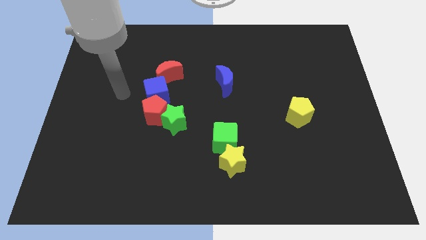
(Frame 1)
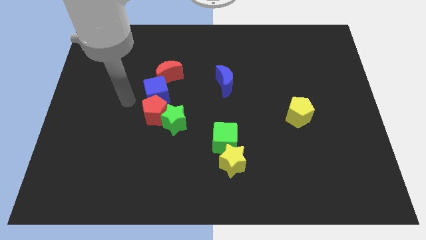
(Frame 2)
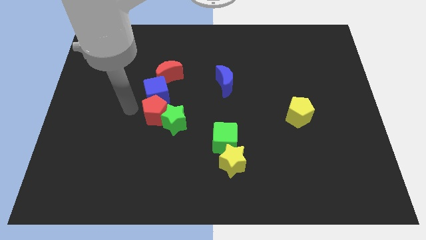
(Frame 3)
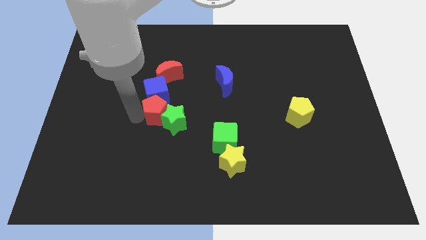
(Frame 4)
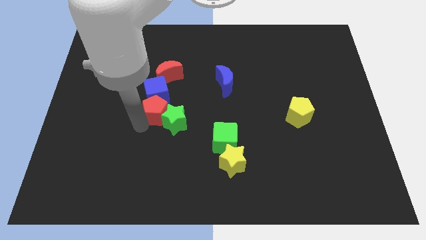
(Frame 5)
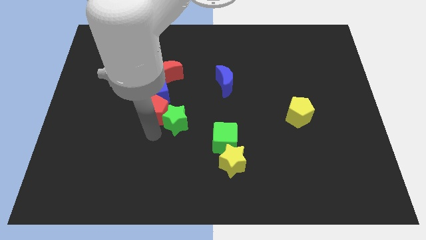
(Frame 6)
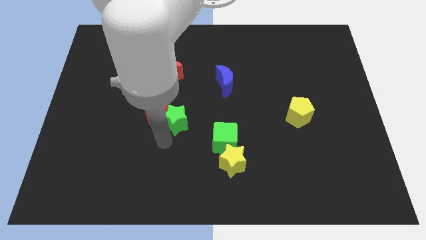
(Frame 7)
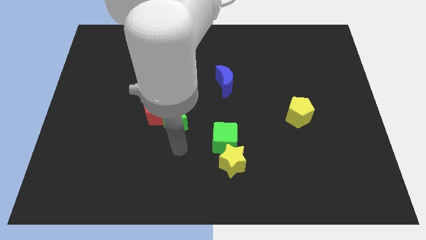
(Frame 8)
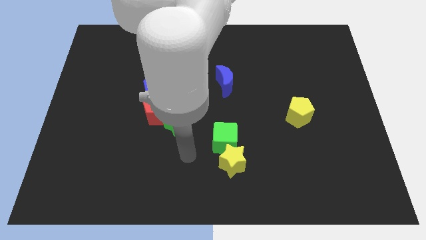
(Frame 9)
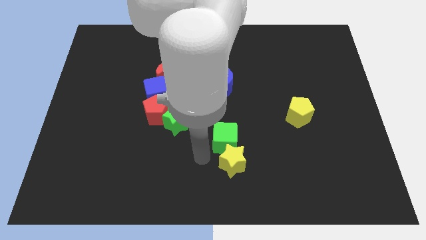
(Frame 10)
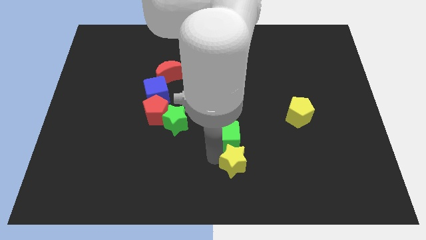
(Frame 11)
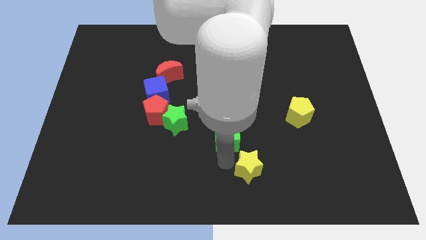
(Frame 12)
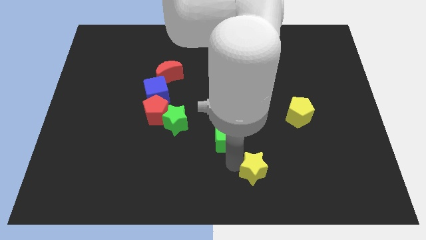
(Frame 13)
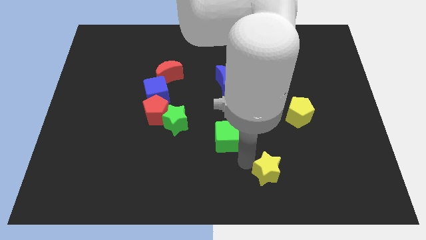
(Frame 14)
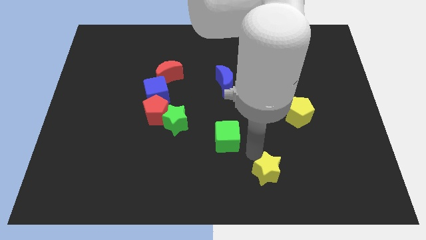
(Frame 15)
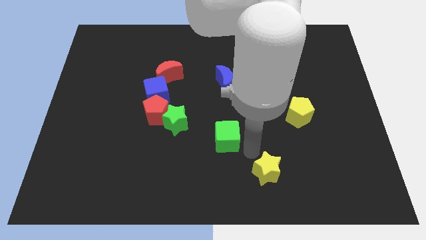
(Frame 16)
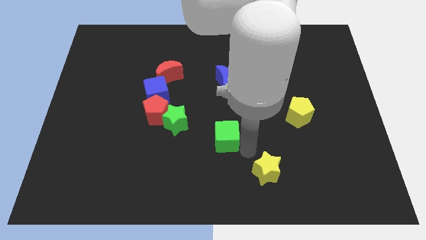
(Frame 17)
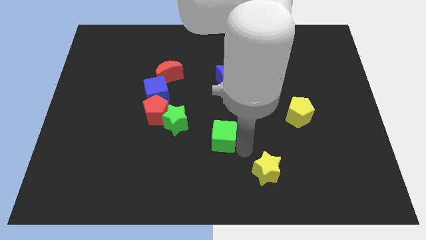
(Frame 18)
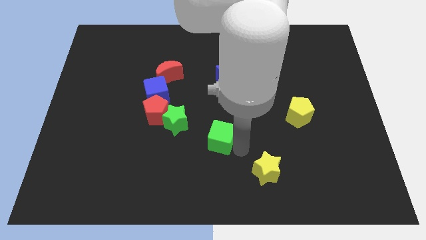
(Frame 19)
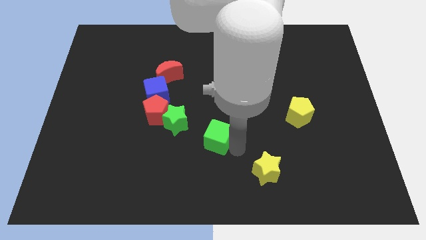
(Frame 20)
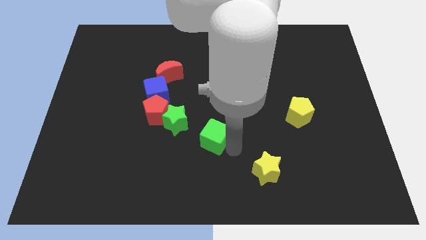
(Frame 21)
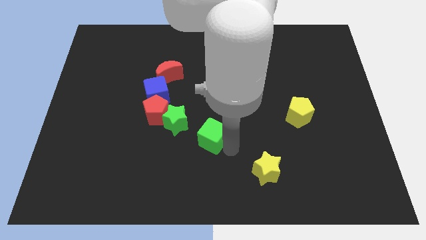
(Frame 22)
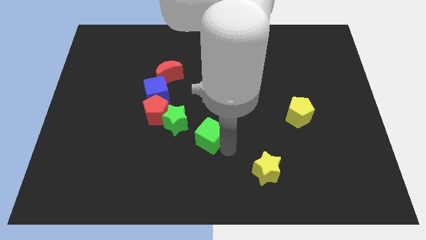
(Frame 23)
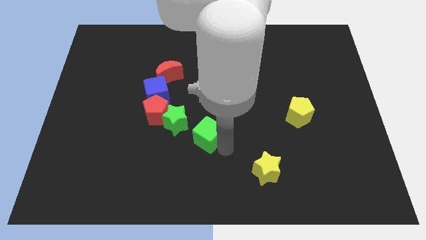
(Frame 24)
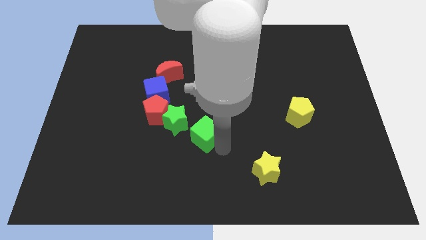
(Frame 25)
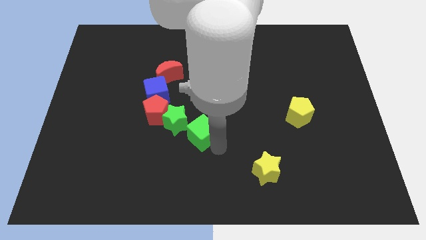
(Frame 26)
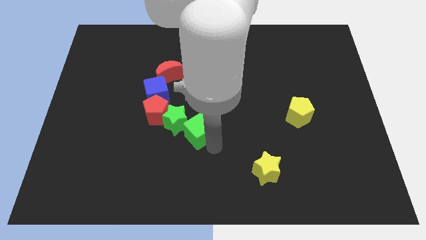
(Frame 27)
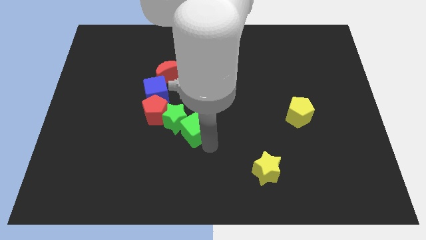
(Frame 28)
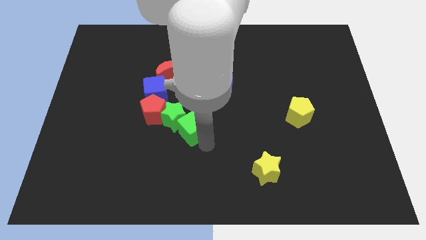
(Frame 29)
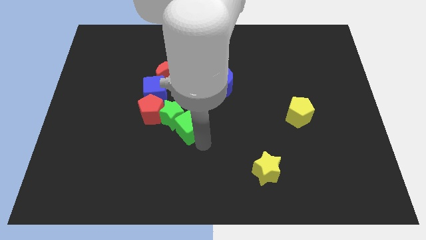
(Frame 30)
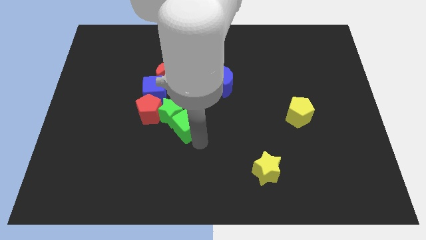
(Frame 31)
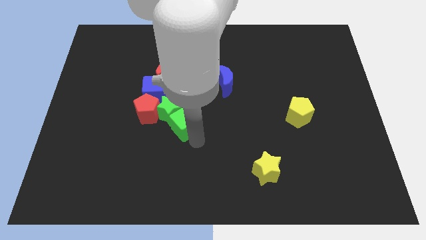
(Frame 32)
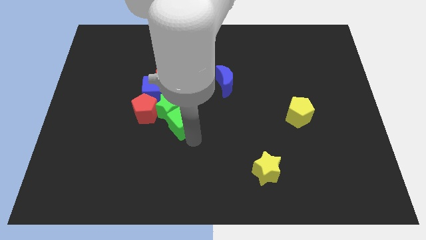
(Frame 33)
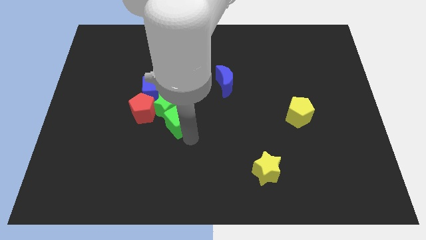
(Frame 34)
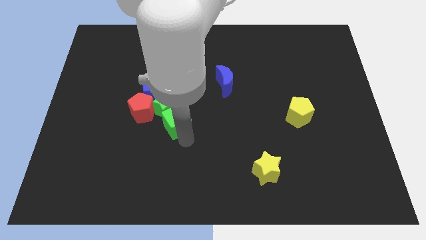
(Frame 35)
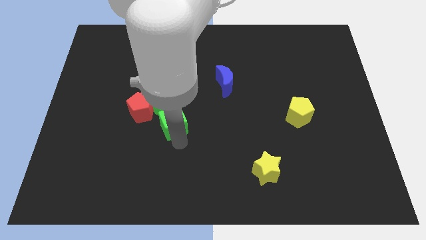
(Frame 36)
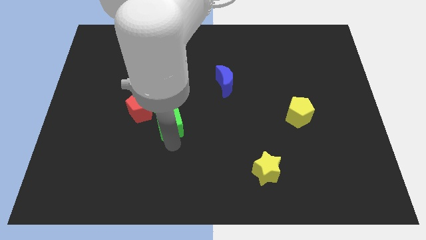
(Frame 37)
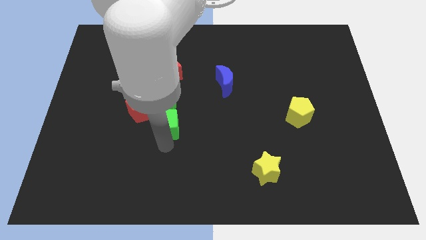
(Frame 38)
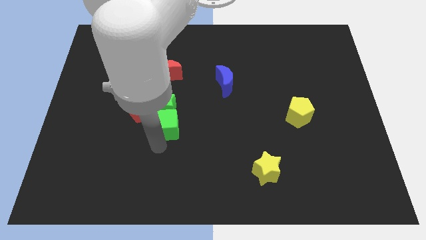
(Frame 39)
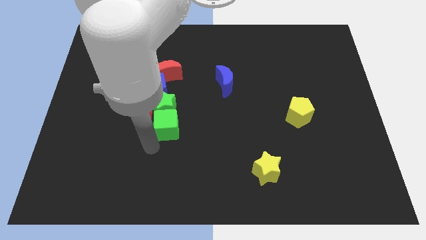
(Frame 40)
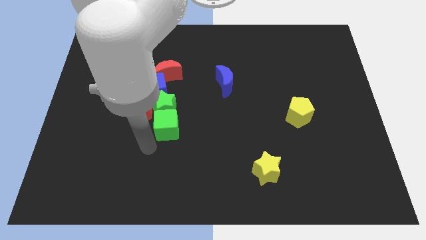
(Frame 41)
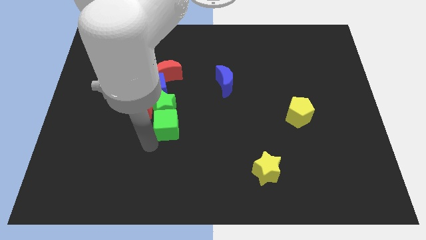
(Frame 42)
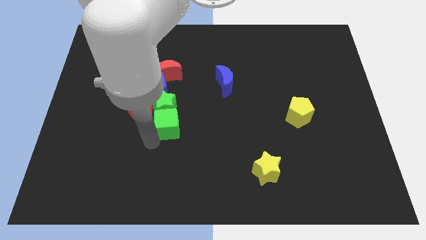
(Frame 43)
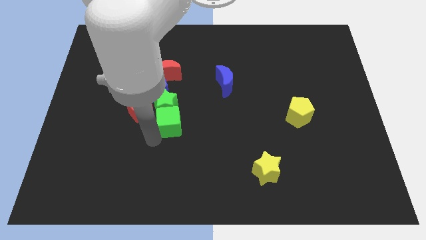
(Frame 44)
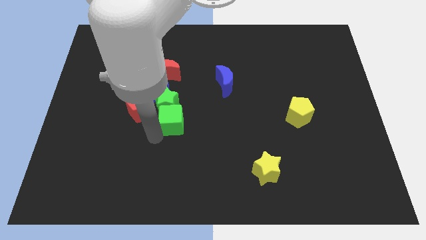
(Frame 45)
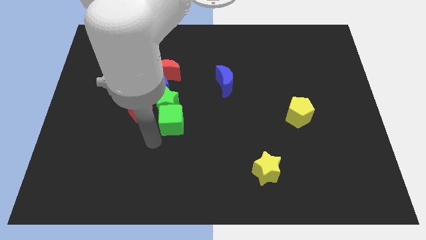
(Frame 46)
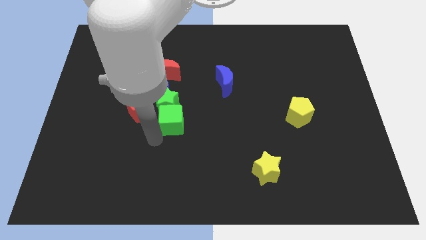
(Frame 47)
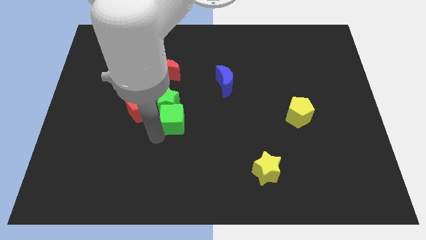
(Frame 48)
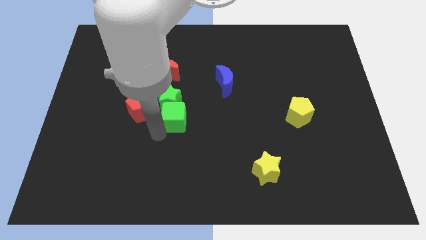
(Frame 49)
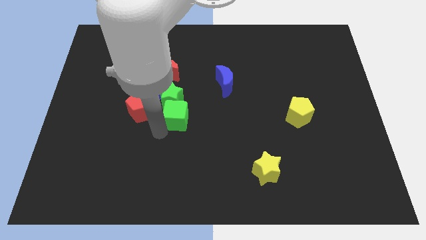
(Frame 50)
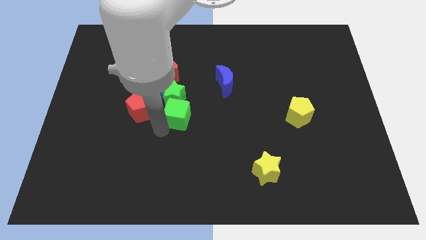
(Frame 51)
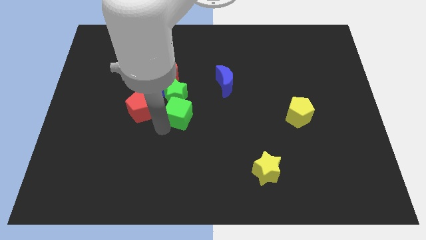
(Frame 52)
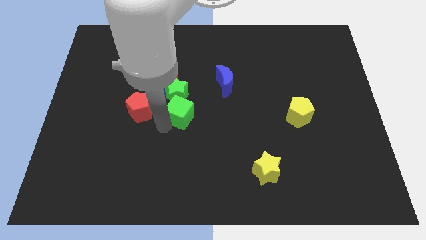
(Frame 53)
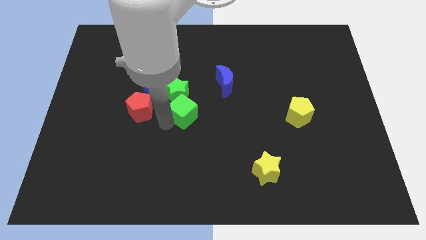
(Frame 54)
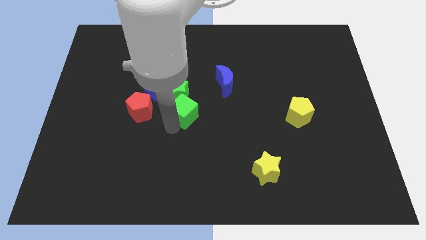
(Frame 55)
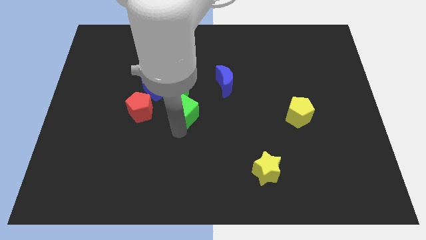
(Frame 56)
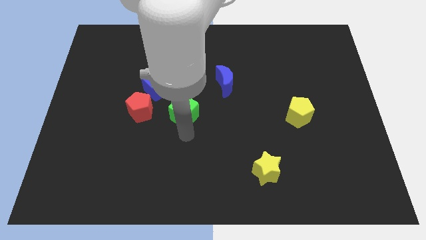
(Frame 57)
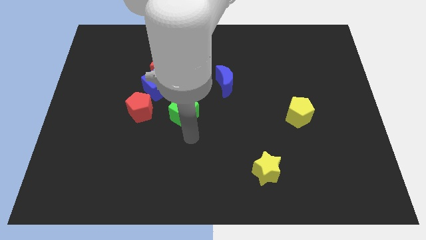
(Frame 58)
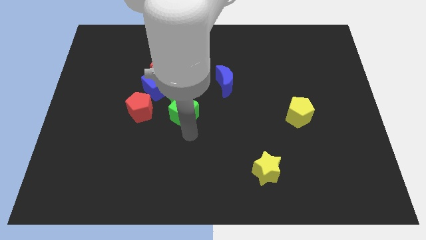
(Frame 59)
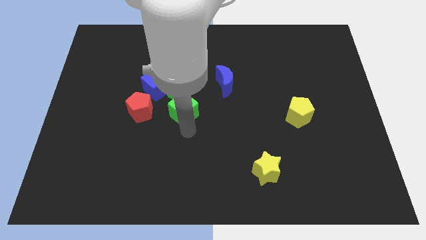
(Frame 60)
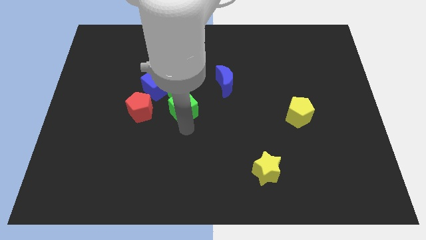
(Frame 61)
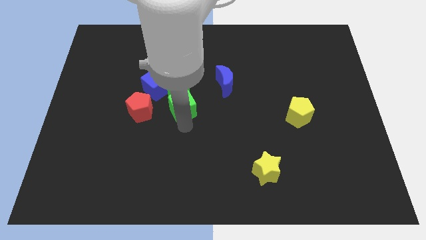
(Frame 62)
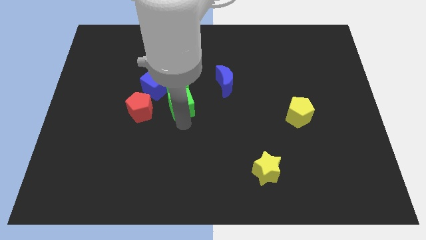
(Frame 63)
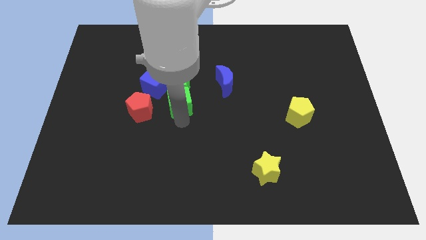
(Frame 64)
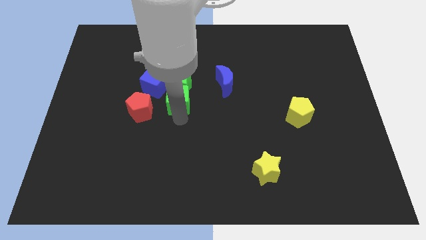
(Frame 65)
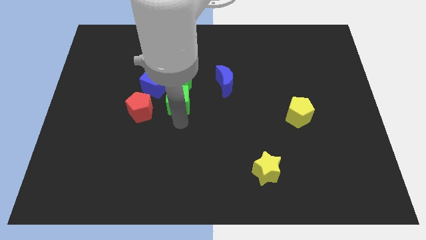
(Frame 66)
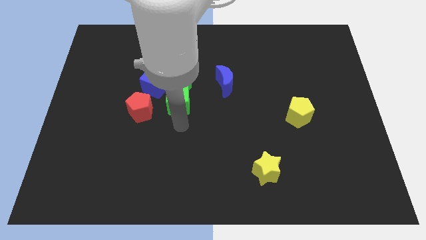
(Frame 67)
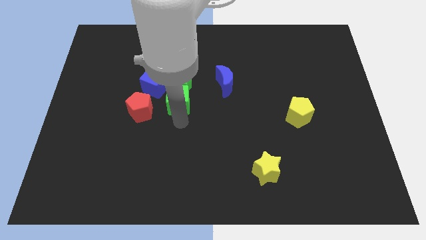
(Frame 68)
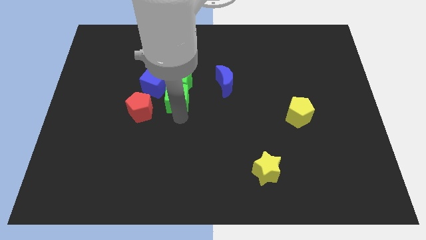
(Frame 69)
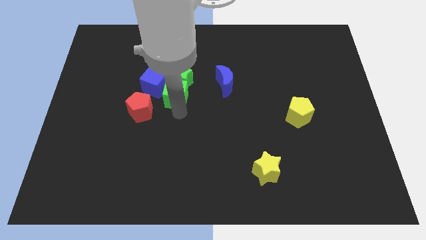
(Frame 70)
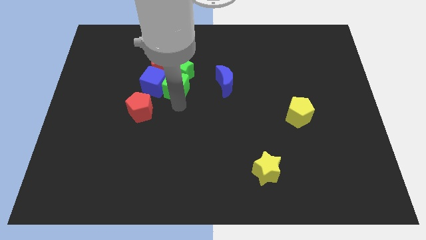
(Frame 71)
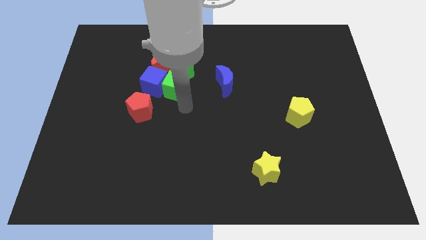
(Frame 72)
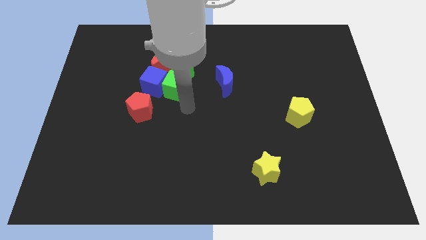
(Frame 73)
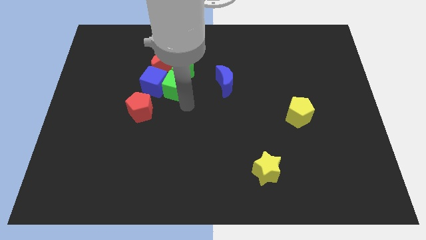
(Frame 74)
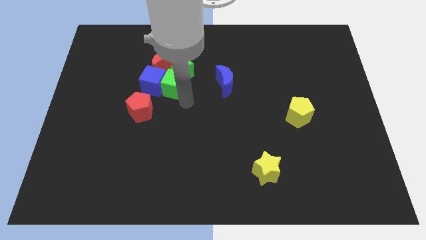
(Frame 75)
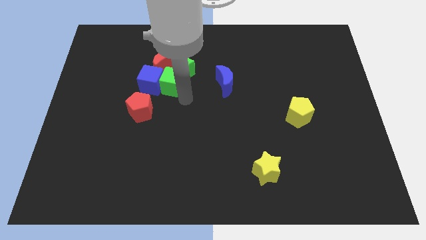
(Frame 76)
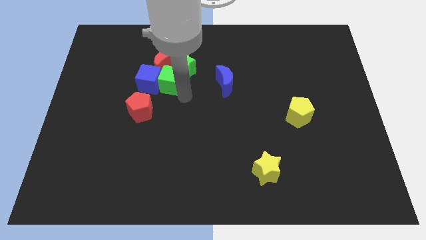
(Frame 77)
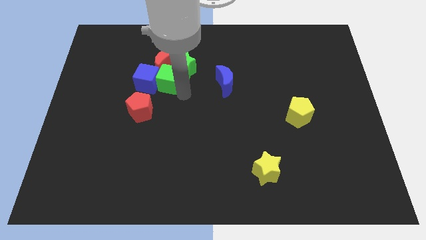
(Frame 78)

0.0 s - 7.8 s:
move the green cube next to the red moon

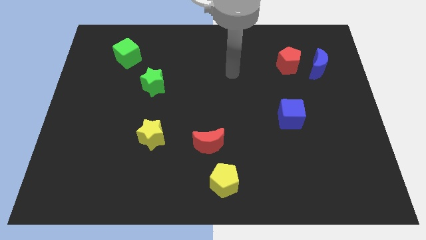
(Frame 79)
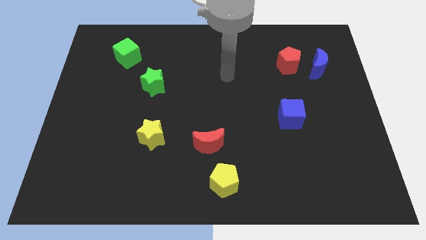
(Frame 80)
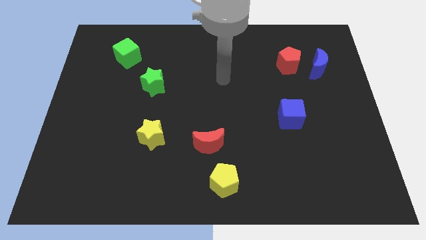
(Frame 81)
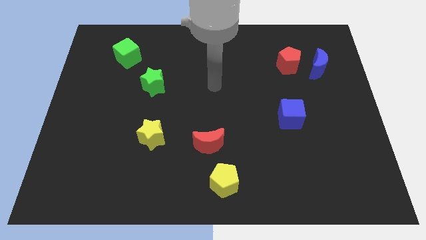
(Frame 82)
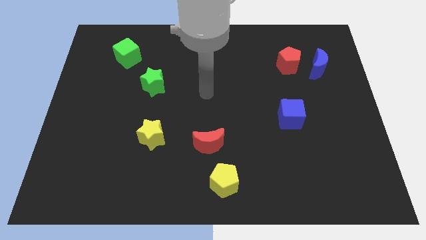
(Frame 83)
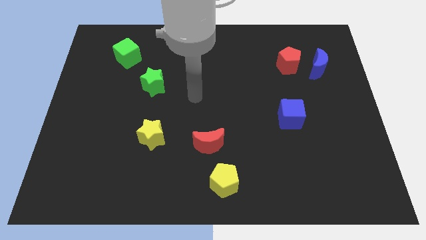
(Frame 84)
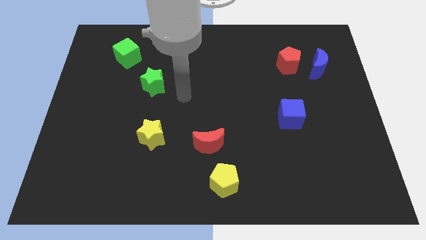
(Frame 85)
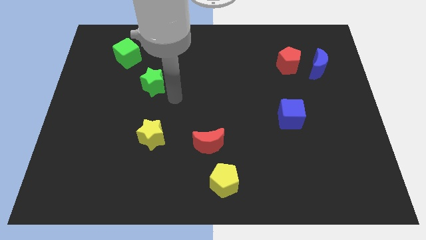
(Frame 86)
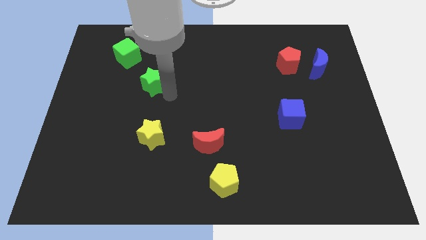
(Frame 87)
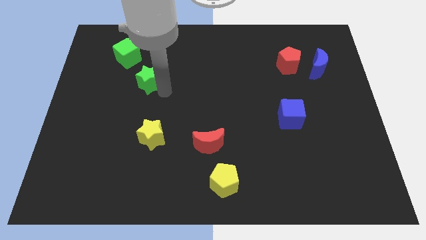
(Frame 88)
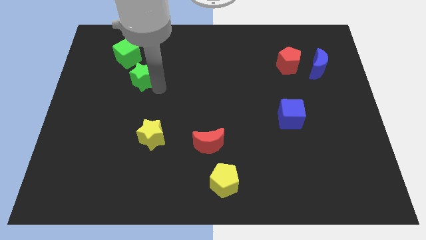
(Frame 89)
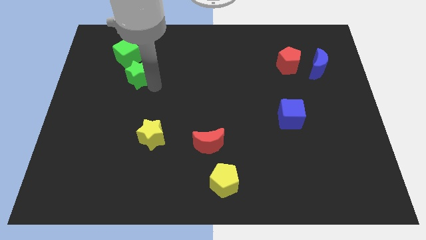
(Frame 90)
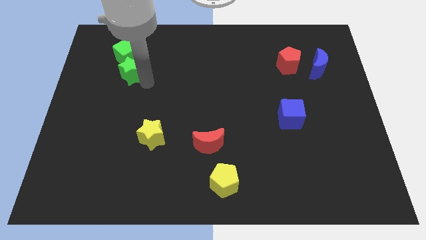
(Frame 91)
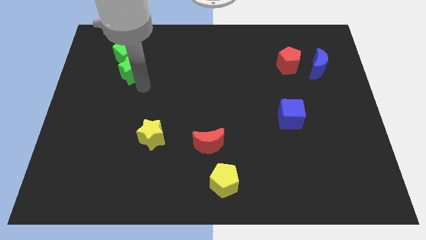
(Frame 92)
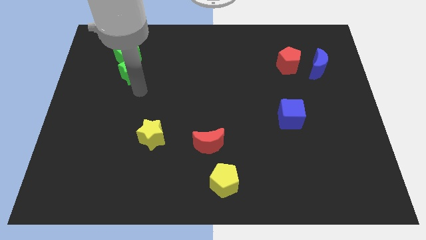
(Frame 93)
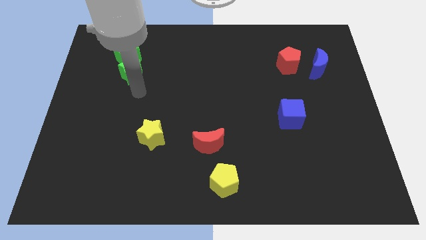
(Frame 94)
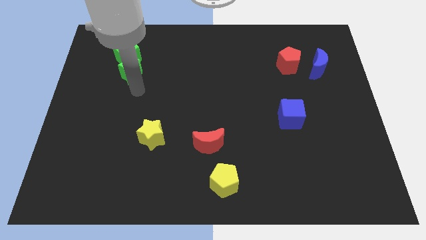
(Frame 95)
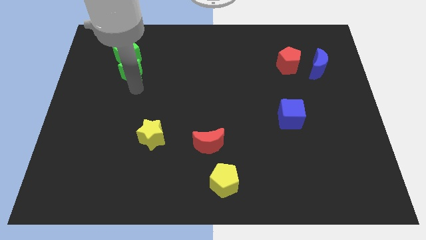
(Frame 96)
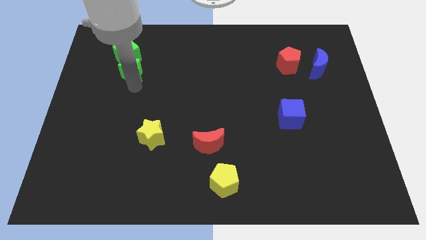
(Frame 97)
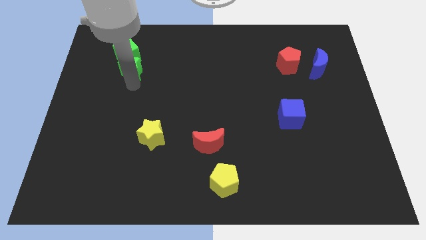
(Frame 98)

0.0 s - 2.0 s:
put the green star to the green cube
